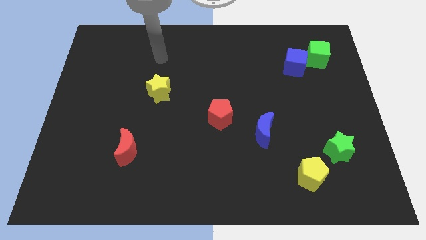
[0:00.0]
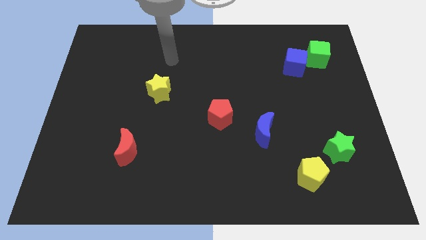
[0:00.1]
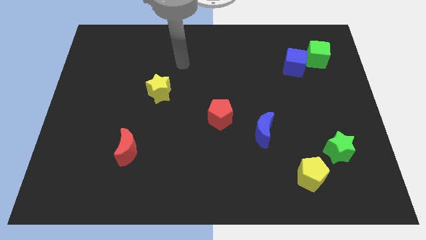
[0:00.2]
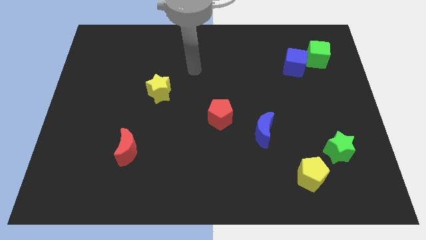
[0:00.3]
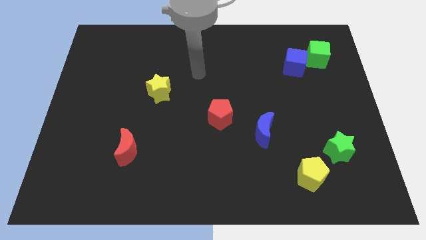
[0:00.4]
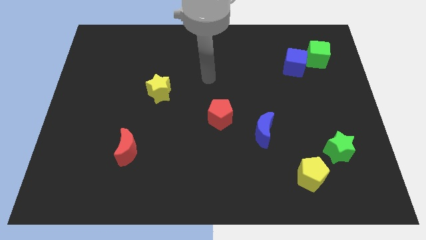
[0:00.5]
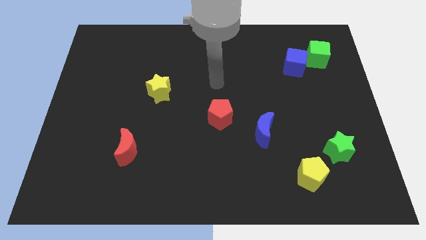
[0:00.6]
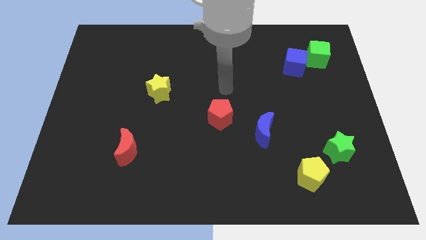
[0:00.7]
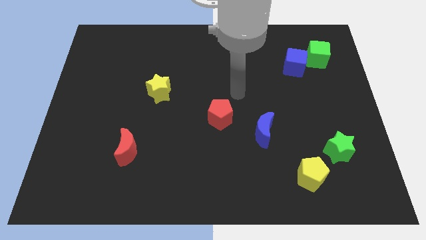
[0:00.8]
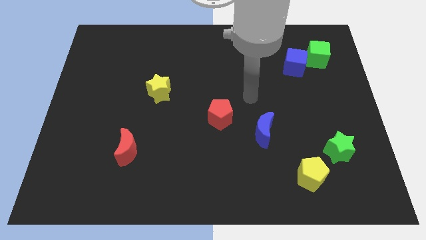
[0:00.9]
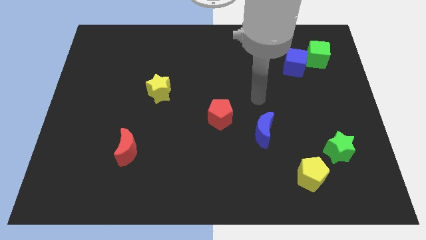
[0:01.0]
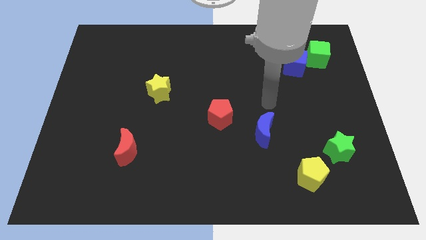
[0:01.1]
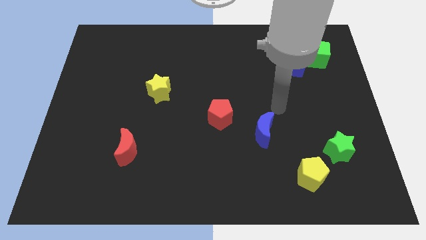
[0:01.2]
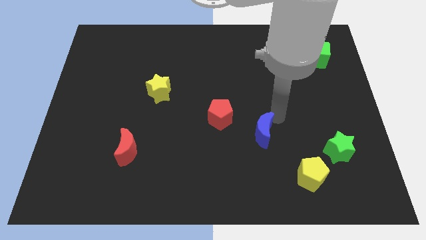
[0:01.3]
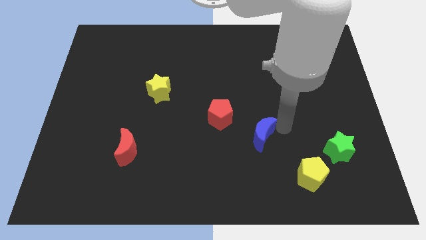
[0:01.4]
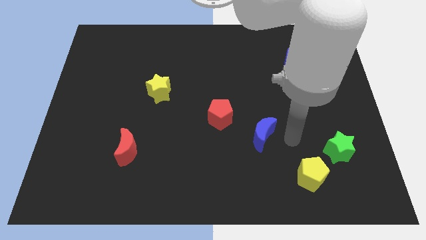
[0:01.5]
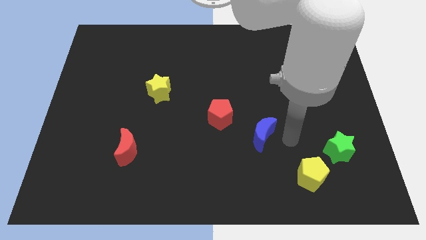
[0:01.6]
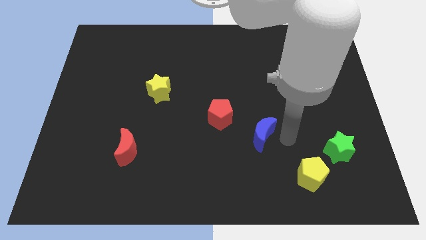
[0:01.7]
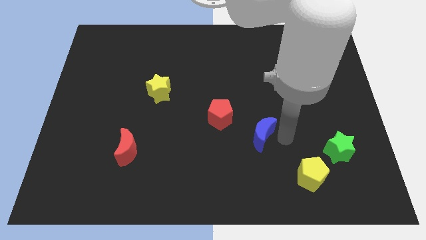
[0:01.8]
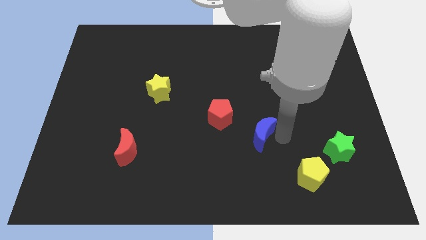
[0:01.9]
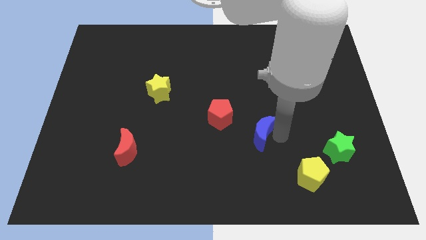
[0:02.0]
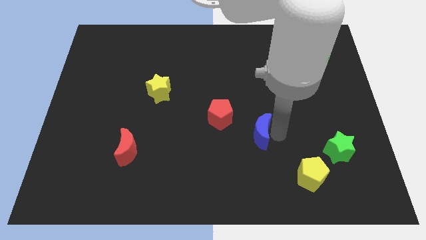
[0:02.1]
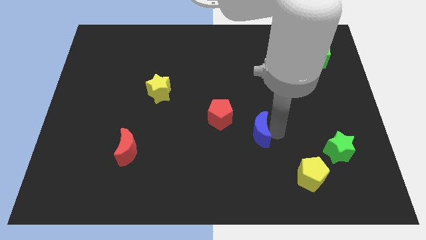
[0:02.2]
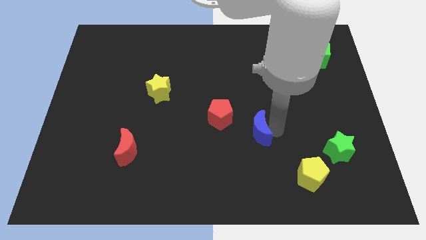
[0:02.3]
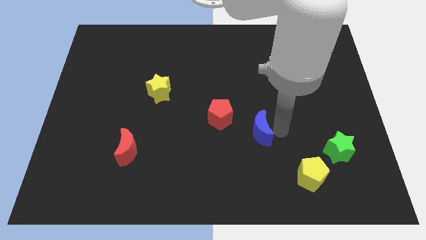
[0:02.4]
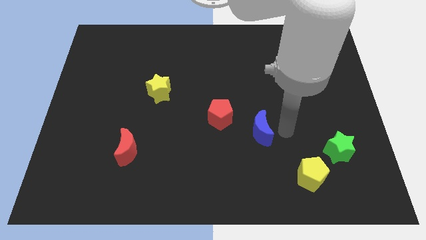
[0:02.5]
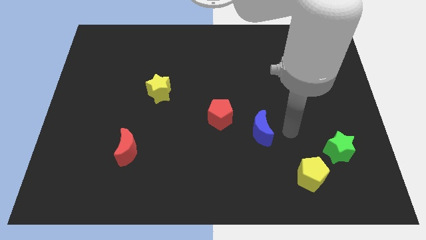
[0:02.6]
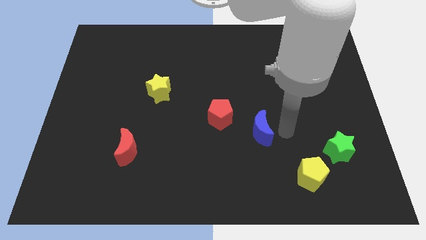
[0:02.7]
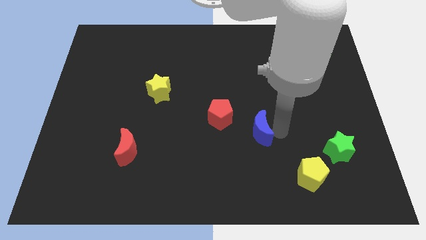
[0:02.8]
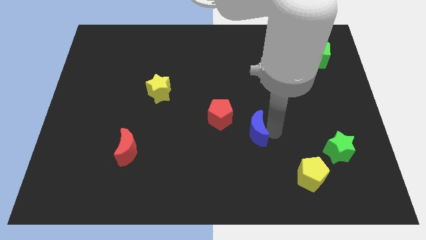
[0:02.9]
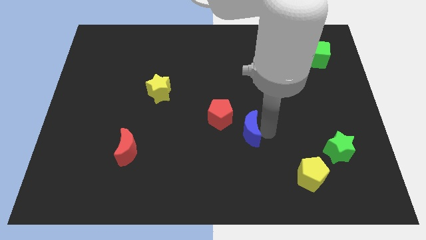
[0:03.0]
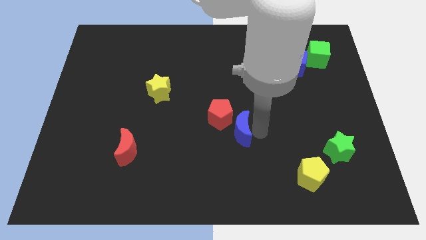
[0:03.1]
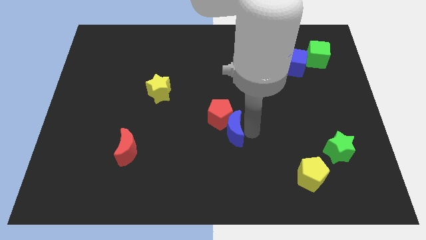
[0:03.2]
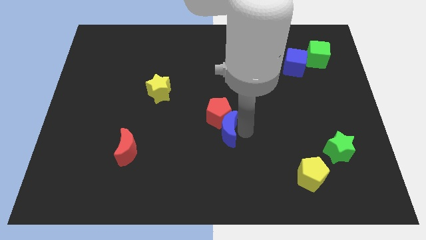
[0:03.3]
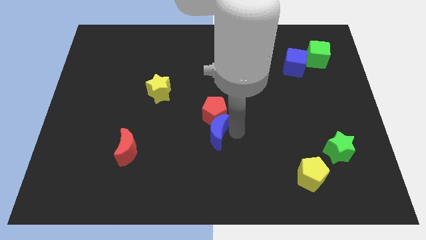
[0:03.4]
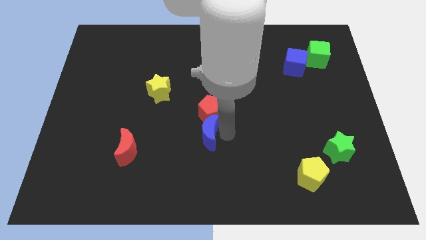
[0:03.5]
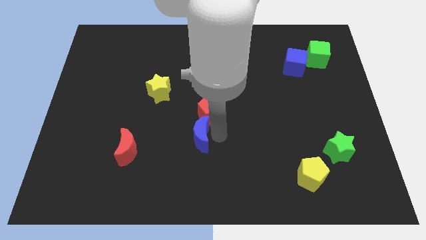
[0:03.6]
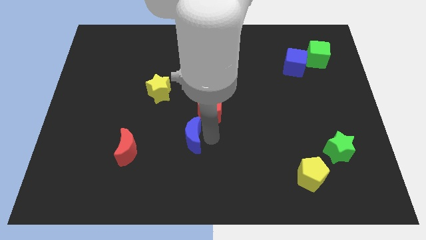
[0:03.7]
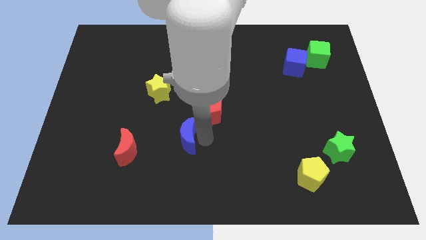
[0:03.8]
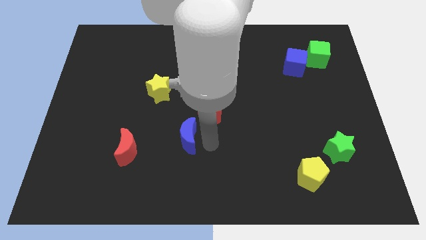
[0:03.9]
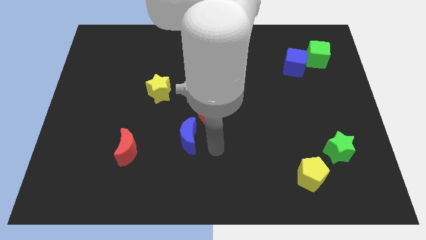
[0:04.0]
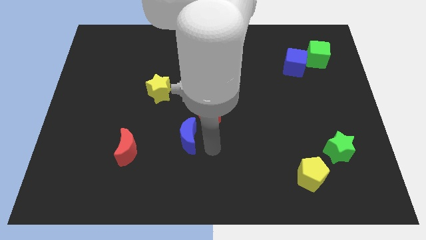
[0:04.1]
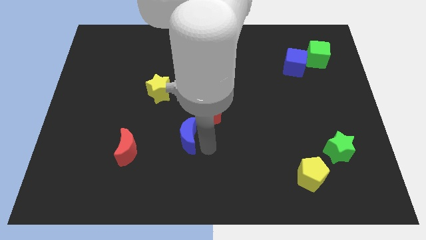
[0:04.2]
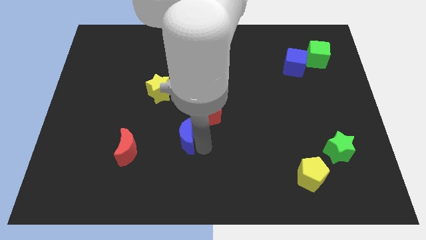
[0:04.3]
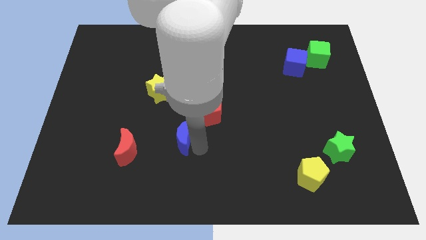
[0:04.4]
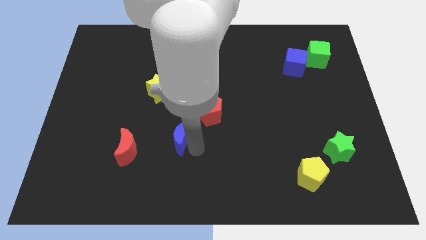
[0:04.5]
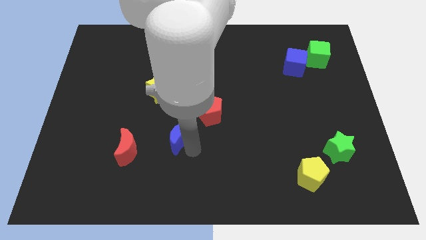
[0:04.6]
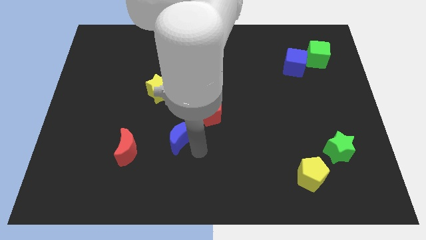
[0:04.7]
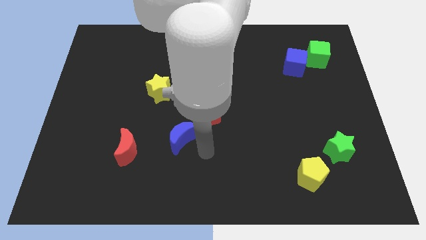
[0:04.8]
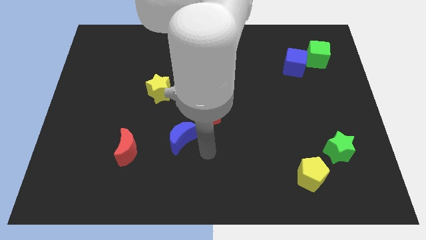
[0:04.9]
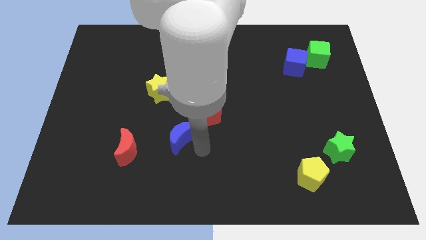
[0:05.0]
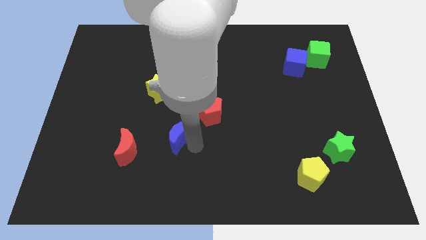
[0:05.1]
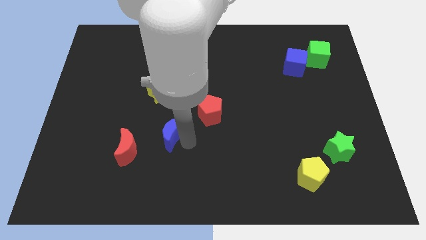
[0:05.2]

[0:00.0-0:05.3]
slide the blue moon below the yellow star

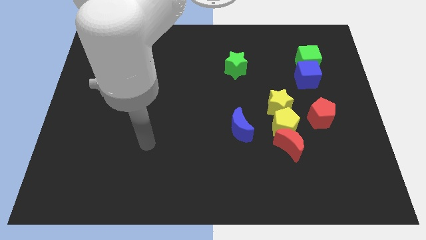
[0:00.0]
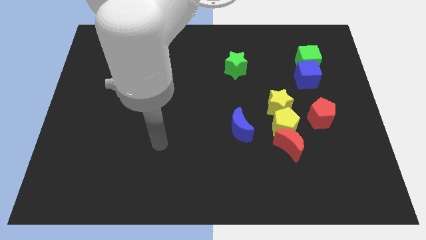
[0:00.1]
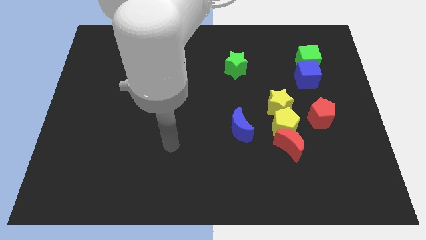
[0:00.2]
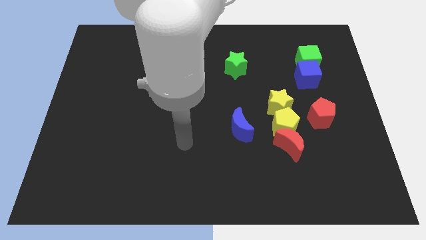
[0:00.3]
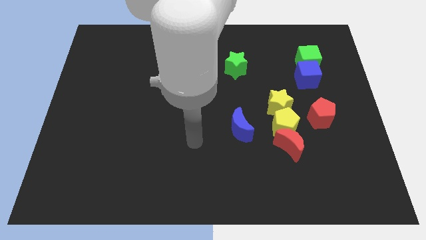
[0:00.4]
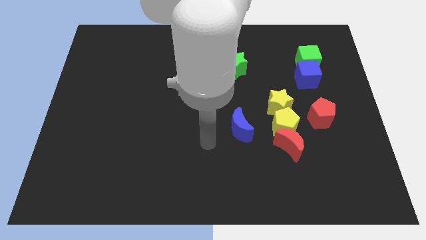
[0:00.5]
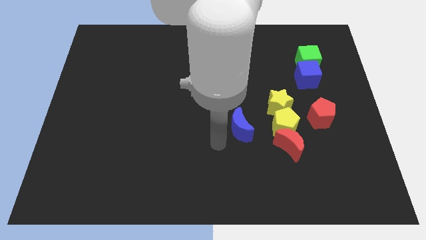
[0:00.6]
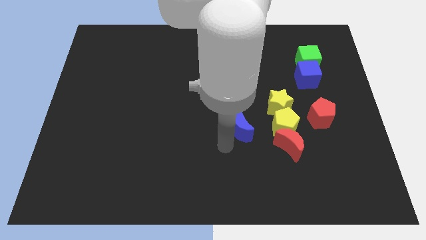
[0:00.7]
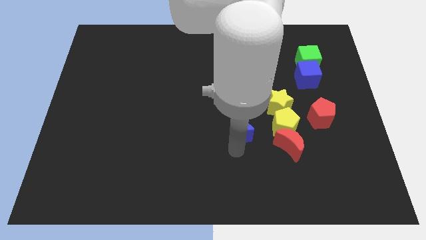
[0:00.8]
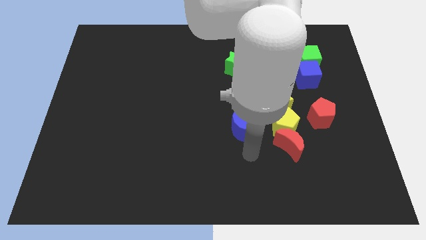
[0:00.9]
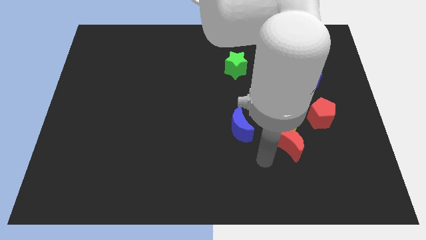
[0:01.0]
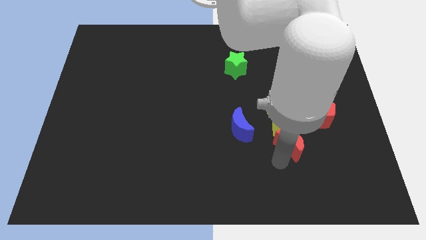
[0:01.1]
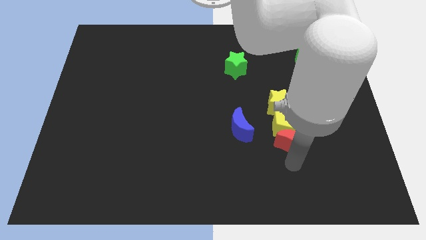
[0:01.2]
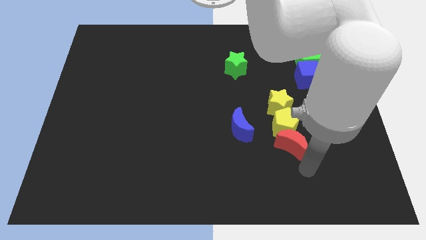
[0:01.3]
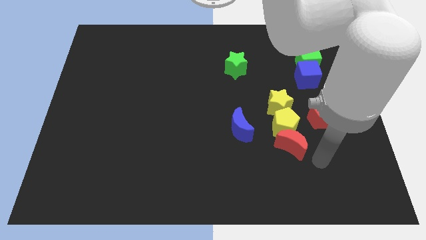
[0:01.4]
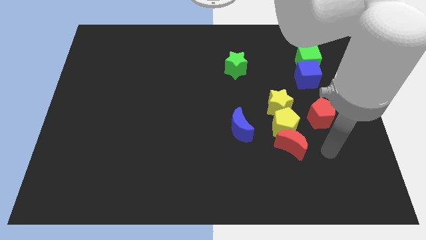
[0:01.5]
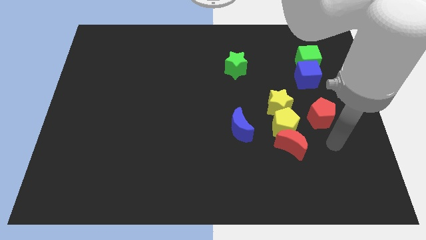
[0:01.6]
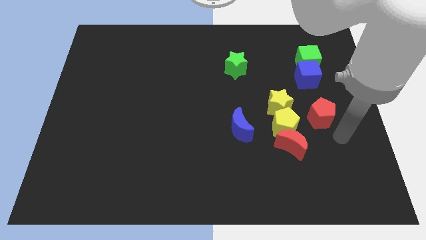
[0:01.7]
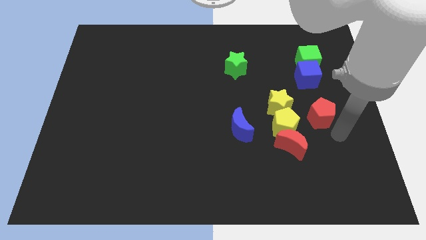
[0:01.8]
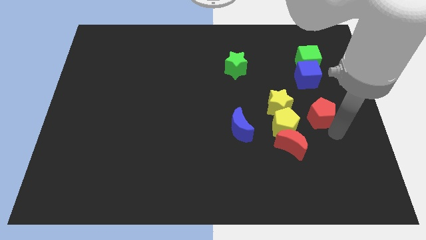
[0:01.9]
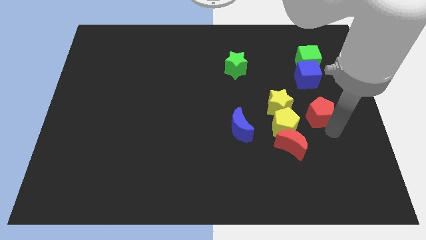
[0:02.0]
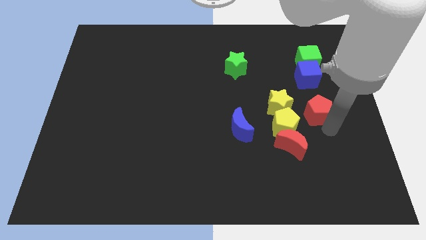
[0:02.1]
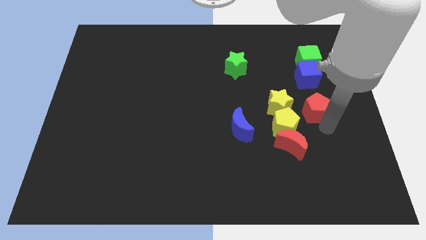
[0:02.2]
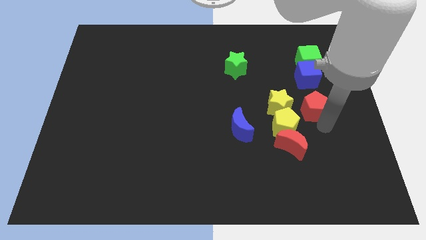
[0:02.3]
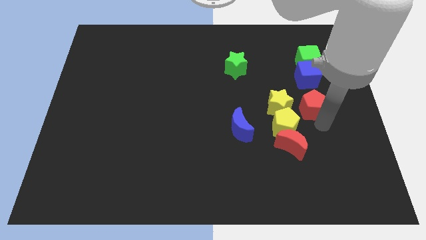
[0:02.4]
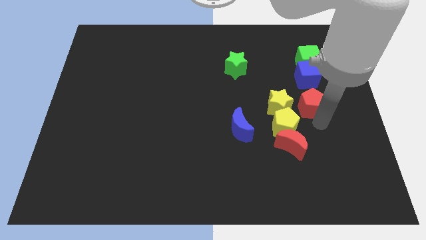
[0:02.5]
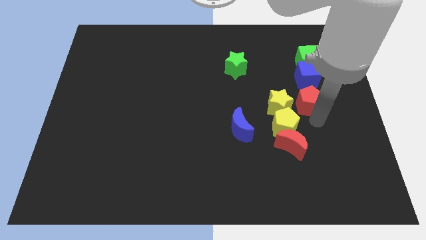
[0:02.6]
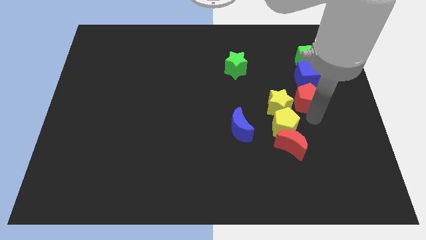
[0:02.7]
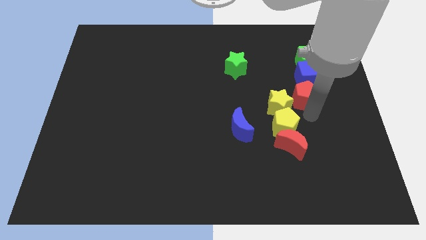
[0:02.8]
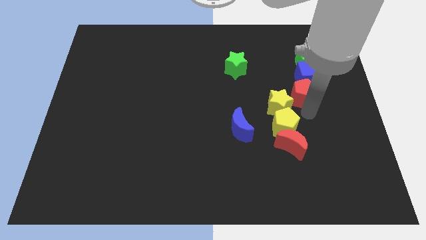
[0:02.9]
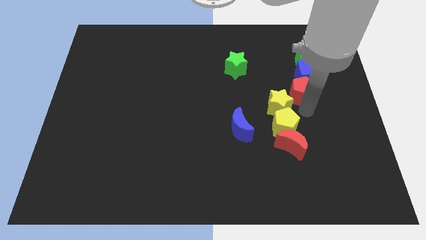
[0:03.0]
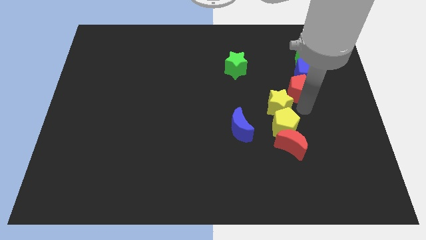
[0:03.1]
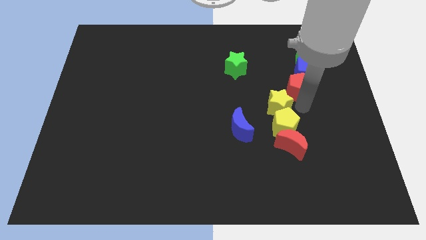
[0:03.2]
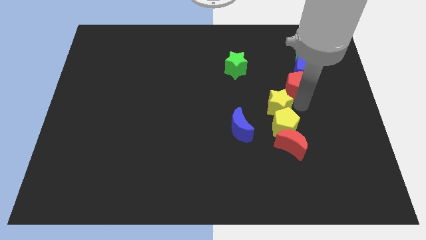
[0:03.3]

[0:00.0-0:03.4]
slide the red pentagon above the yellow star
